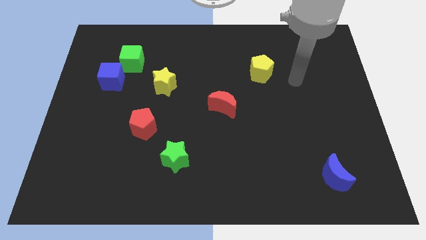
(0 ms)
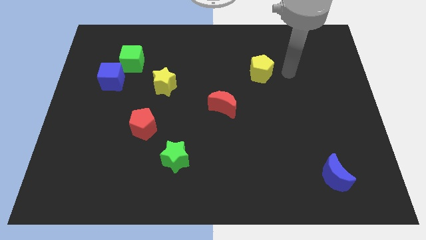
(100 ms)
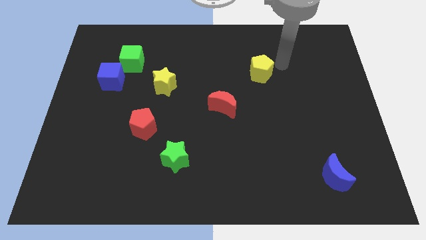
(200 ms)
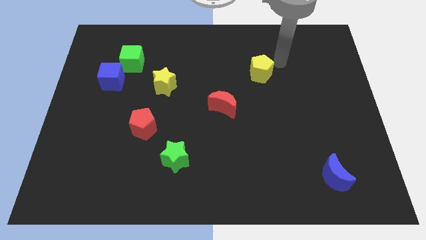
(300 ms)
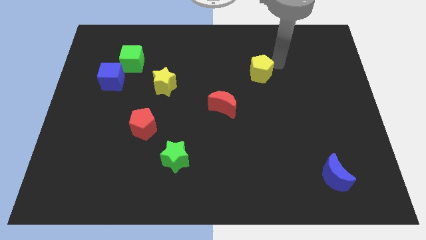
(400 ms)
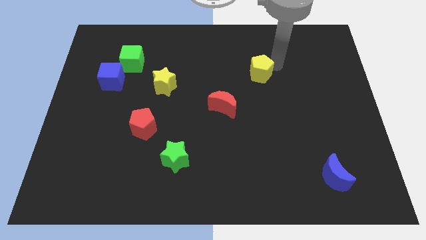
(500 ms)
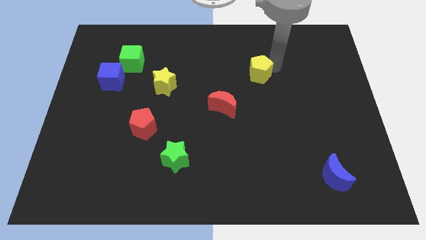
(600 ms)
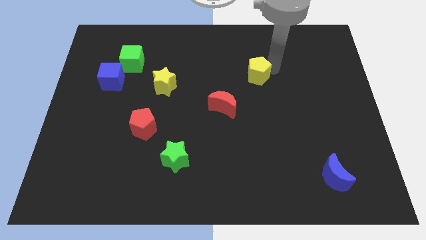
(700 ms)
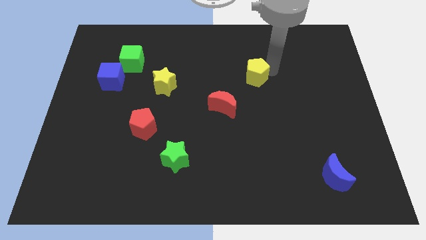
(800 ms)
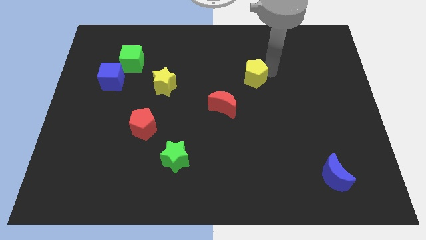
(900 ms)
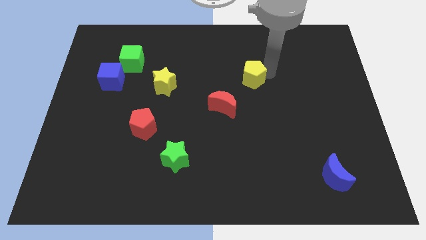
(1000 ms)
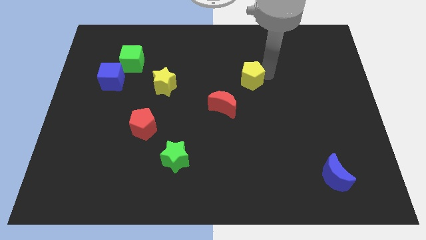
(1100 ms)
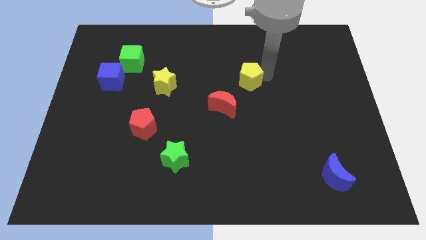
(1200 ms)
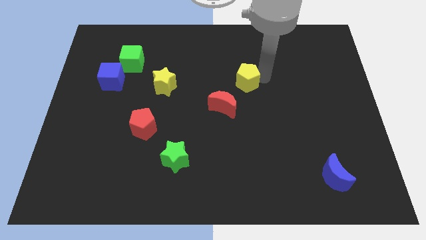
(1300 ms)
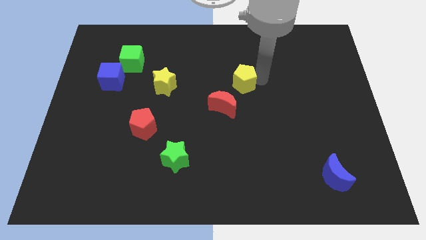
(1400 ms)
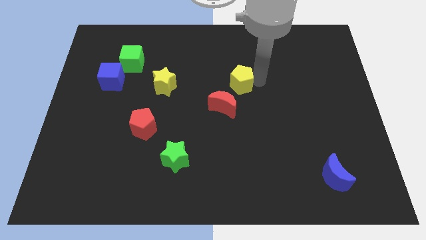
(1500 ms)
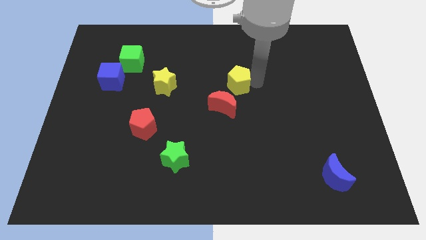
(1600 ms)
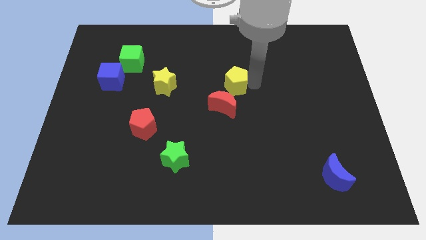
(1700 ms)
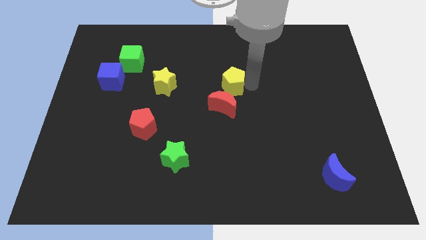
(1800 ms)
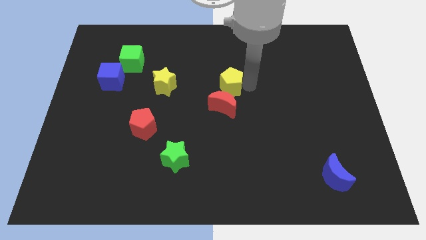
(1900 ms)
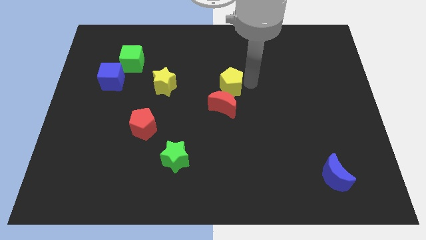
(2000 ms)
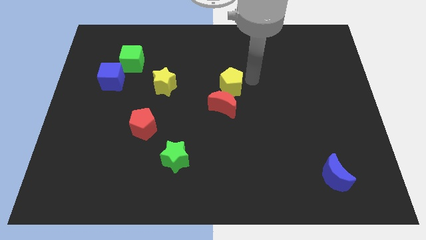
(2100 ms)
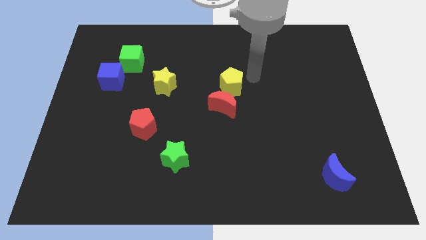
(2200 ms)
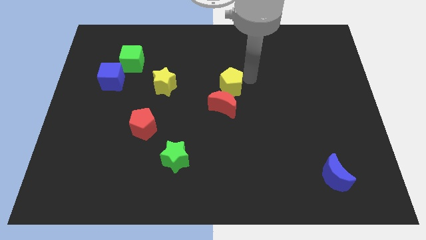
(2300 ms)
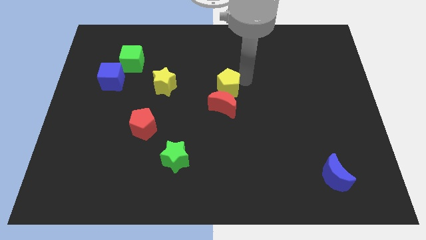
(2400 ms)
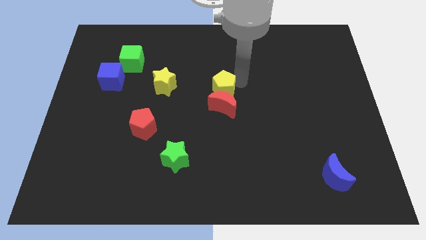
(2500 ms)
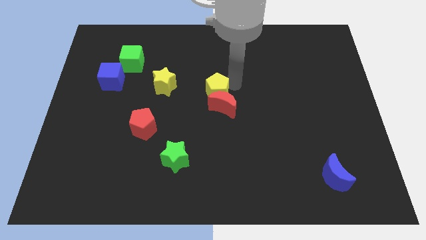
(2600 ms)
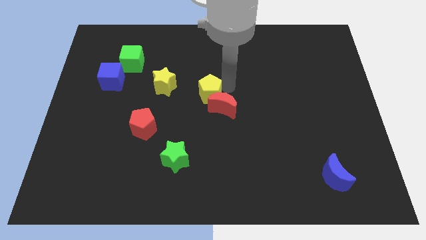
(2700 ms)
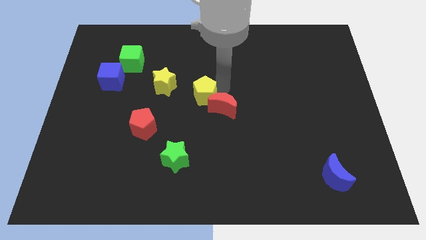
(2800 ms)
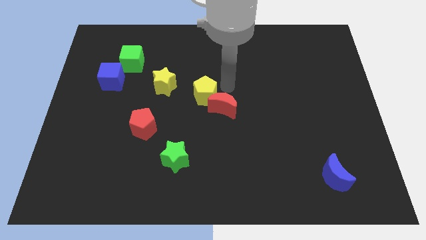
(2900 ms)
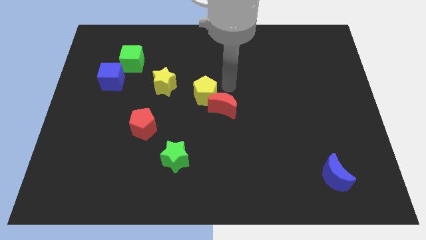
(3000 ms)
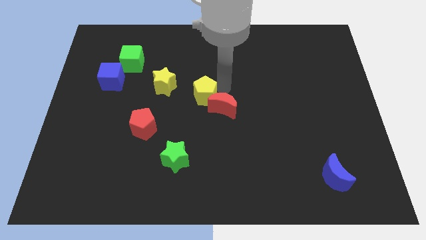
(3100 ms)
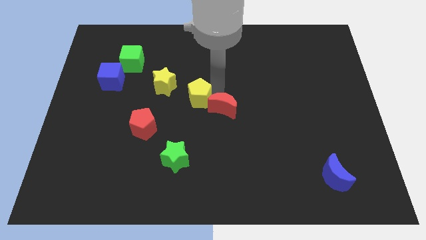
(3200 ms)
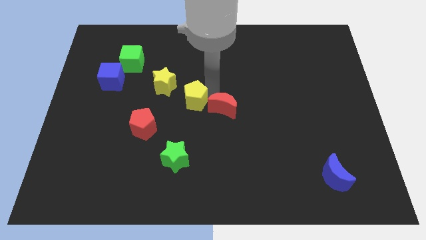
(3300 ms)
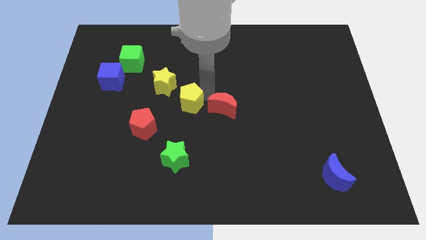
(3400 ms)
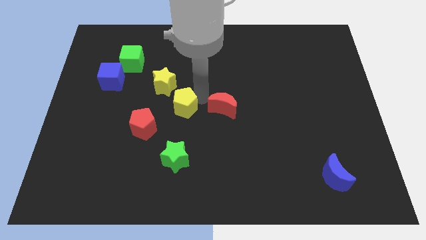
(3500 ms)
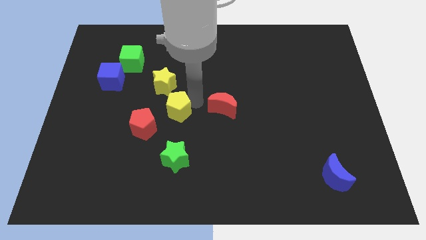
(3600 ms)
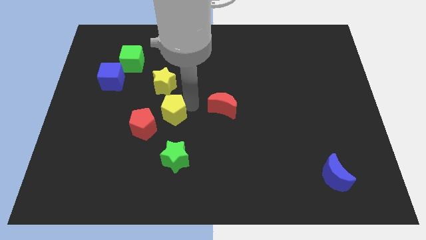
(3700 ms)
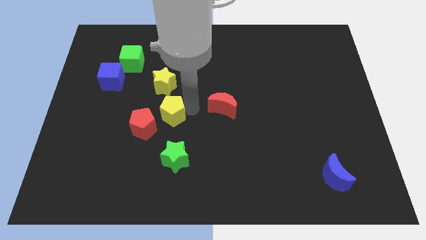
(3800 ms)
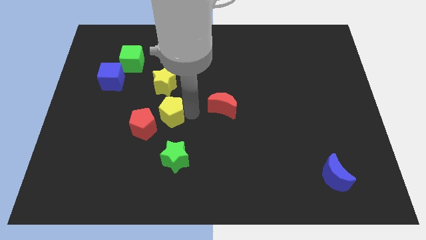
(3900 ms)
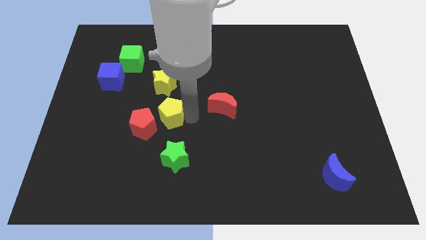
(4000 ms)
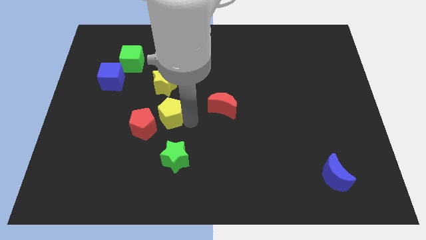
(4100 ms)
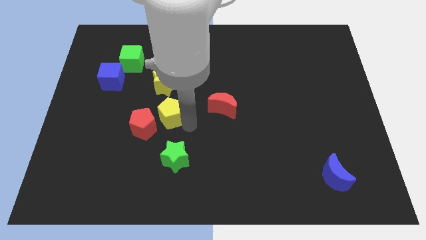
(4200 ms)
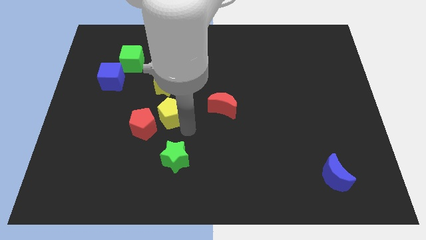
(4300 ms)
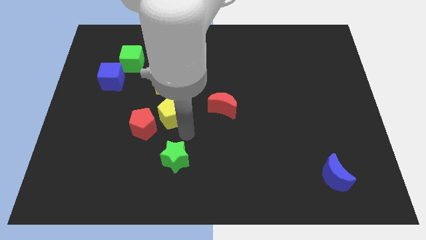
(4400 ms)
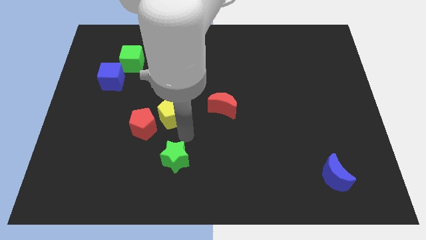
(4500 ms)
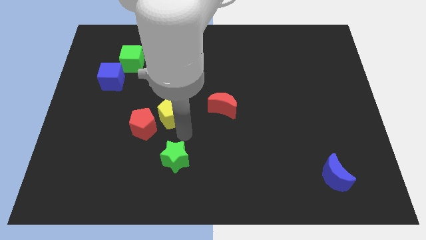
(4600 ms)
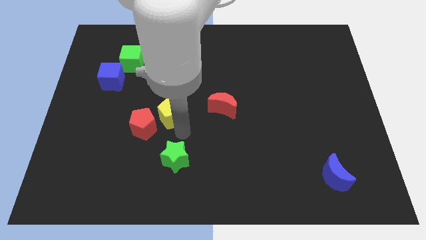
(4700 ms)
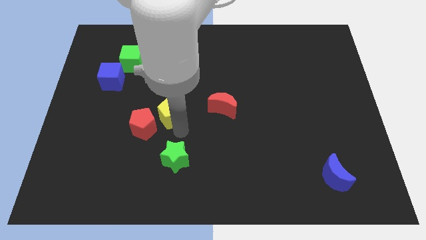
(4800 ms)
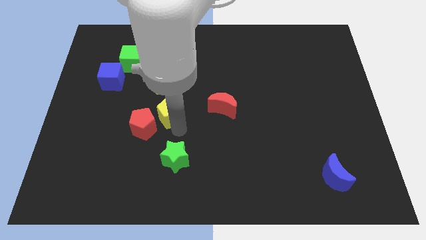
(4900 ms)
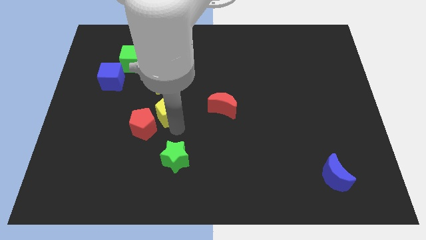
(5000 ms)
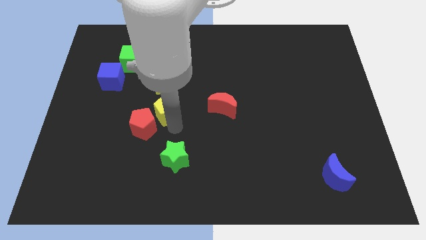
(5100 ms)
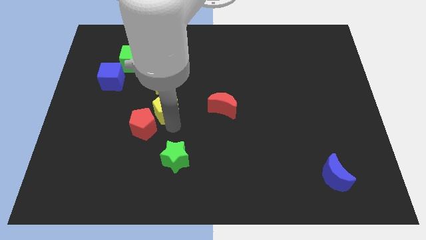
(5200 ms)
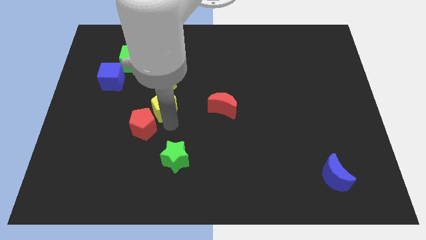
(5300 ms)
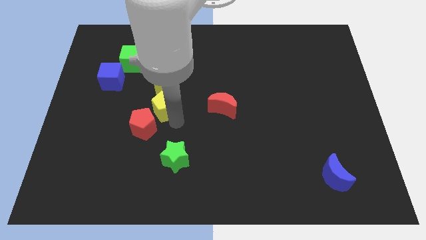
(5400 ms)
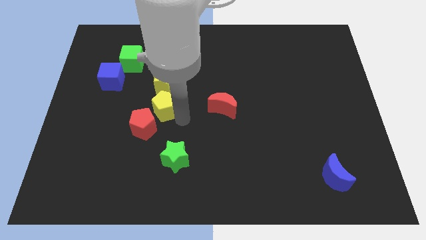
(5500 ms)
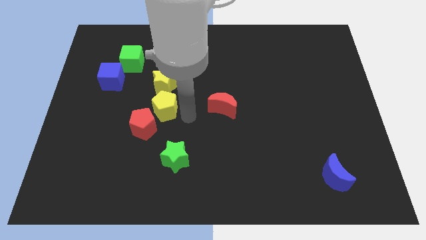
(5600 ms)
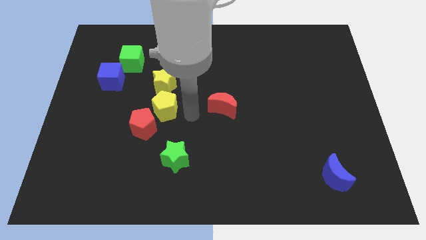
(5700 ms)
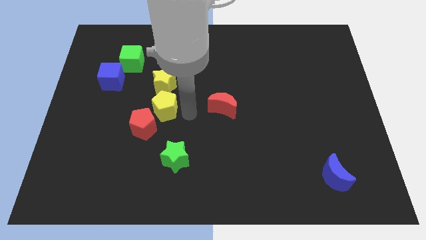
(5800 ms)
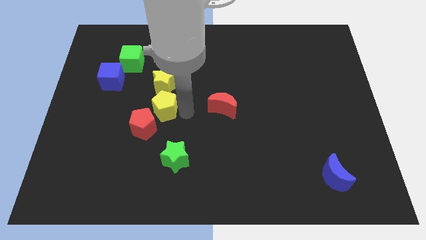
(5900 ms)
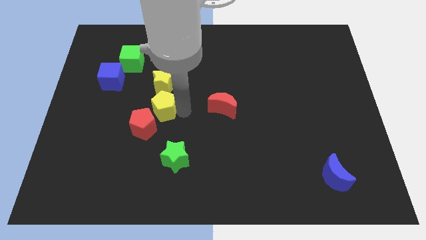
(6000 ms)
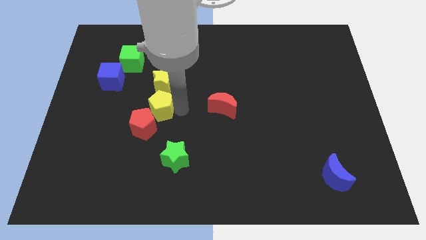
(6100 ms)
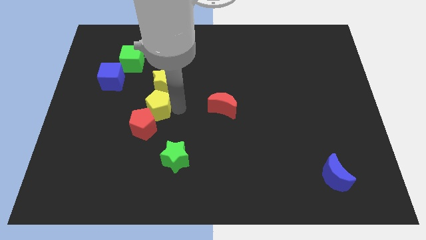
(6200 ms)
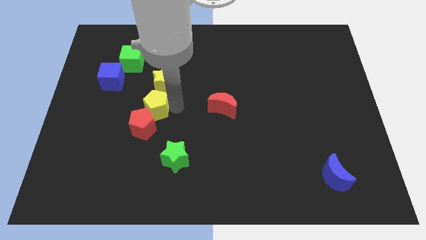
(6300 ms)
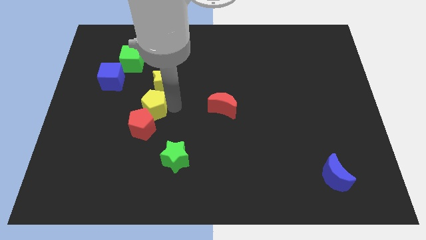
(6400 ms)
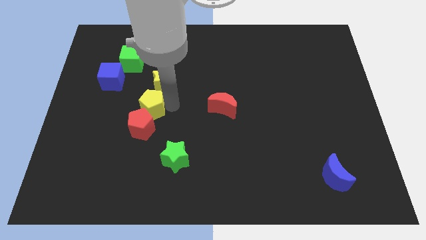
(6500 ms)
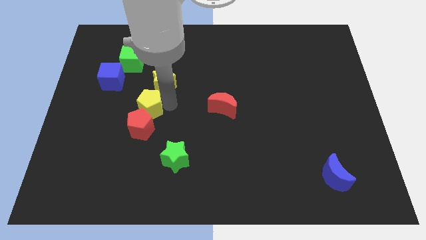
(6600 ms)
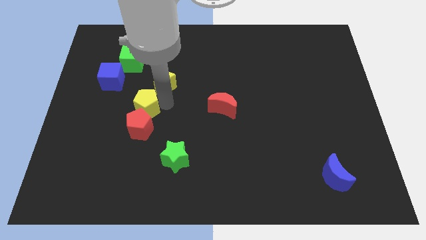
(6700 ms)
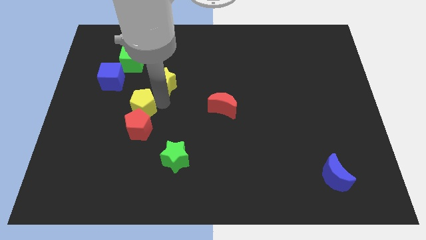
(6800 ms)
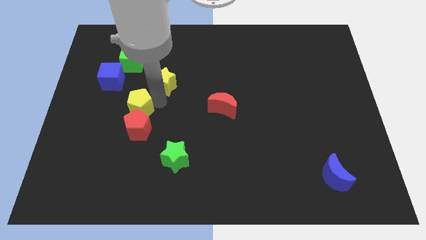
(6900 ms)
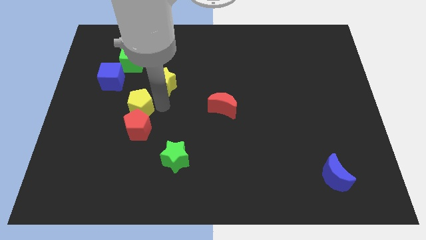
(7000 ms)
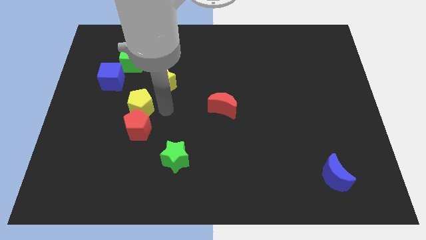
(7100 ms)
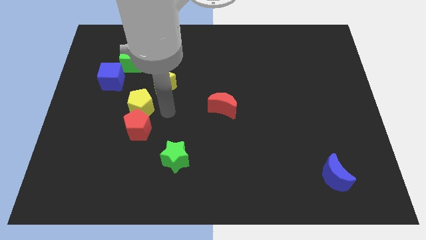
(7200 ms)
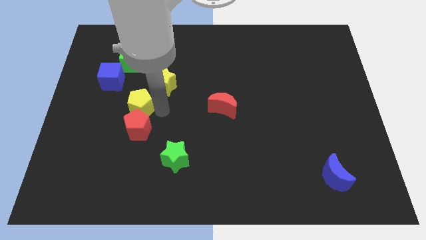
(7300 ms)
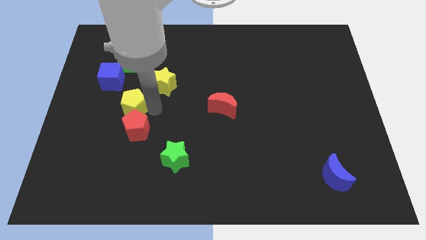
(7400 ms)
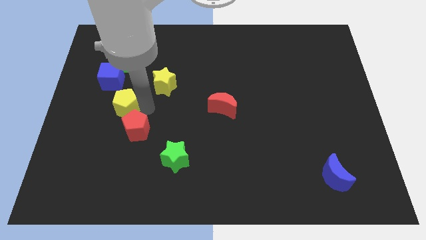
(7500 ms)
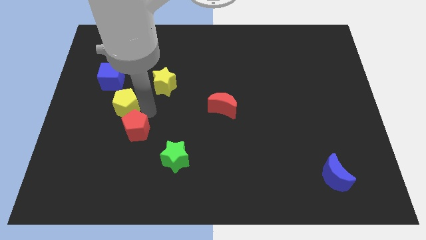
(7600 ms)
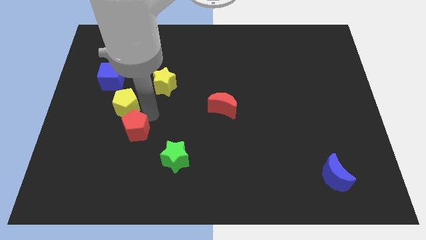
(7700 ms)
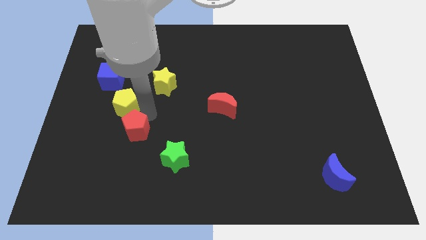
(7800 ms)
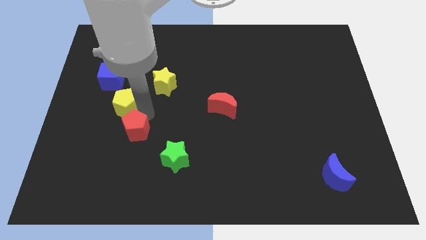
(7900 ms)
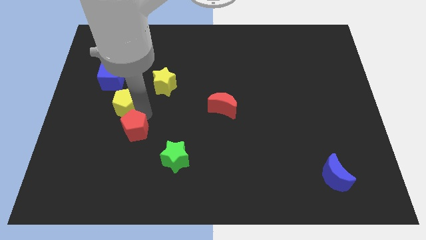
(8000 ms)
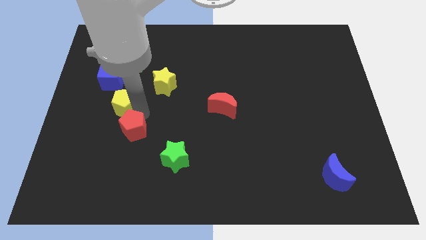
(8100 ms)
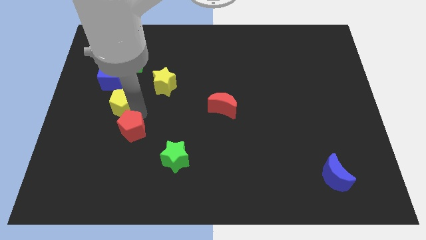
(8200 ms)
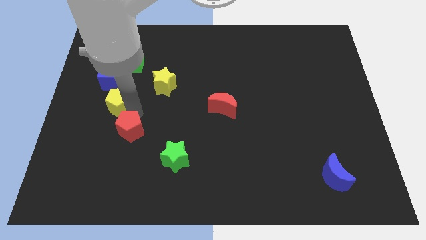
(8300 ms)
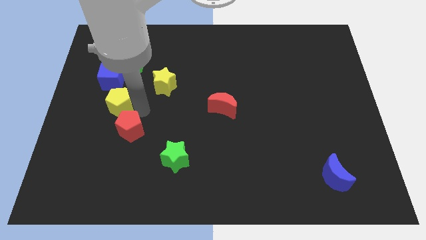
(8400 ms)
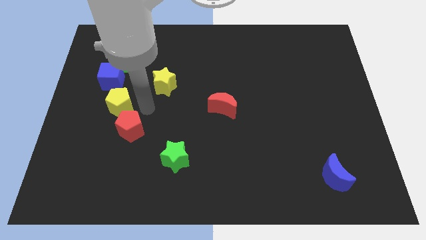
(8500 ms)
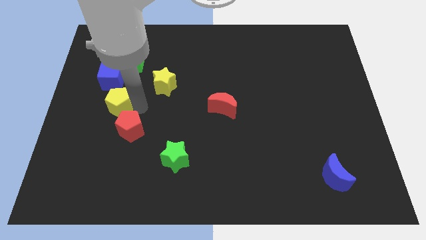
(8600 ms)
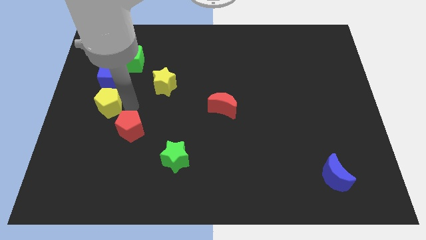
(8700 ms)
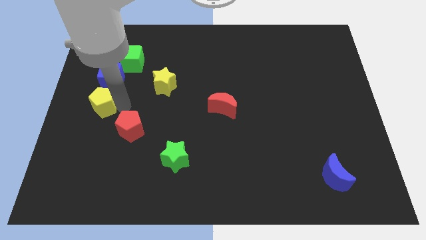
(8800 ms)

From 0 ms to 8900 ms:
put the yellow pentagon to the center left
